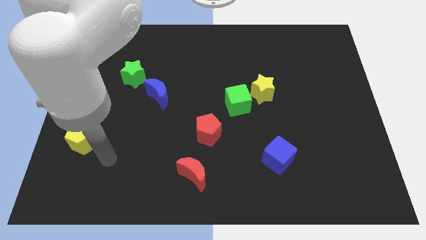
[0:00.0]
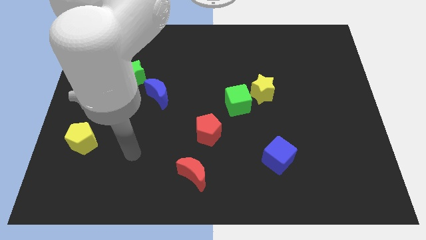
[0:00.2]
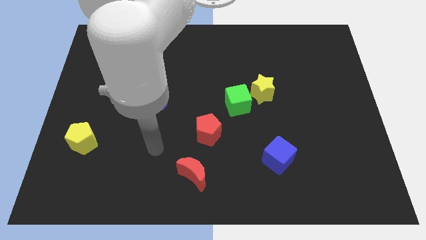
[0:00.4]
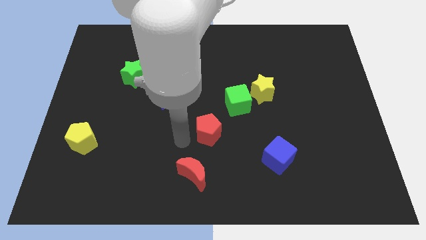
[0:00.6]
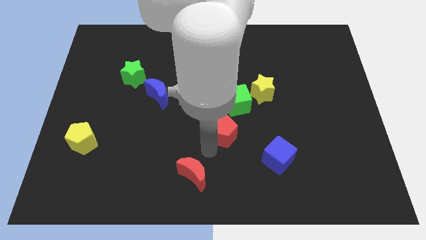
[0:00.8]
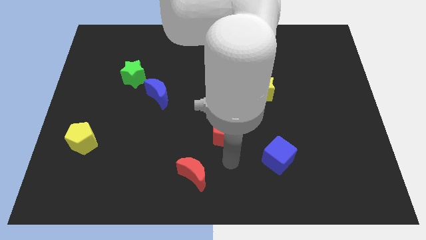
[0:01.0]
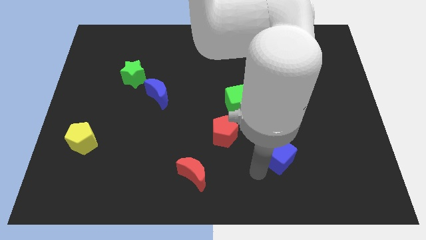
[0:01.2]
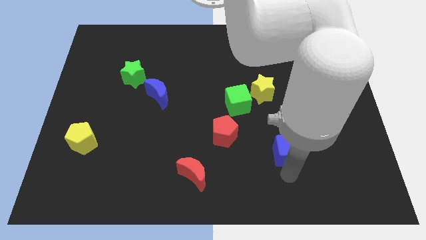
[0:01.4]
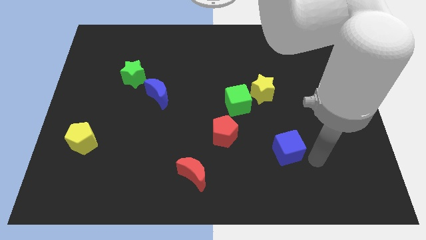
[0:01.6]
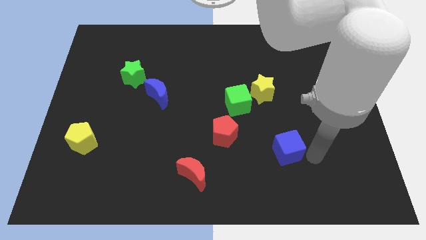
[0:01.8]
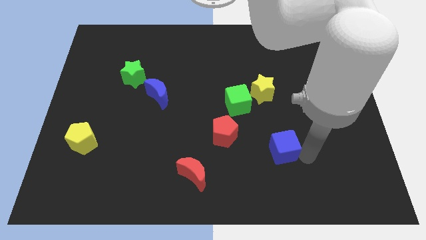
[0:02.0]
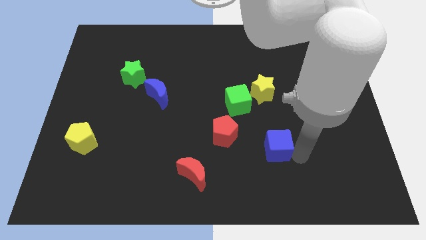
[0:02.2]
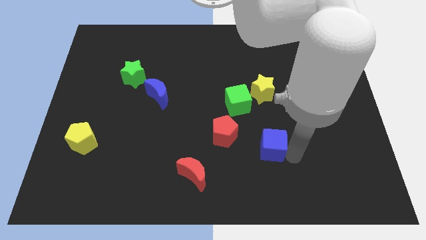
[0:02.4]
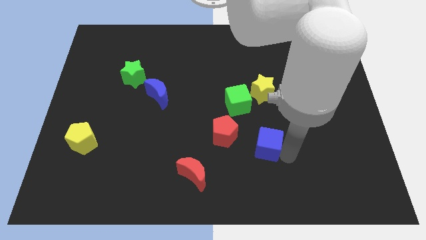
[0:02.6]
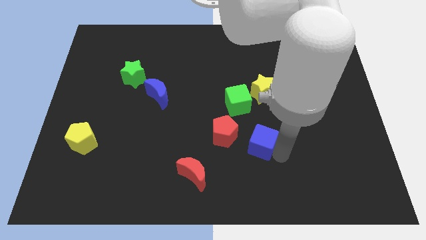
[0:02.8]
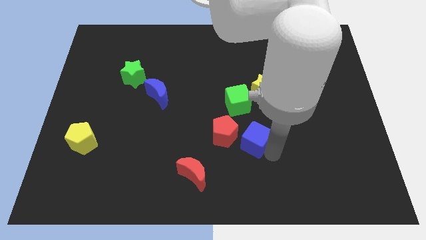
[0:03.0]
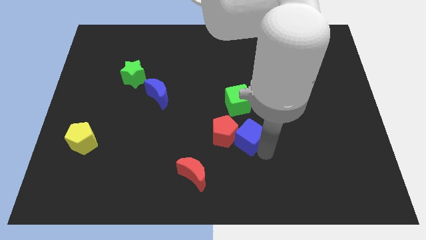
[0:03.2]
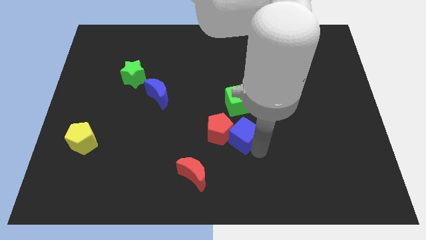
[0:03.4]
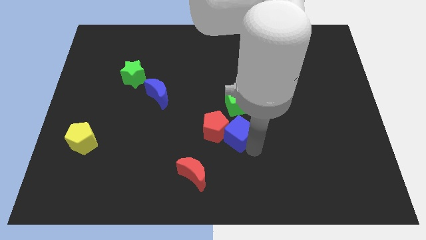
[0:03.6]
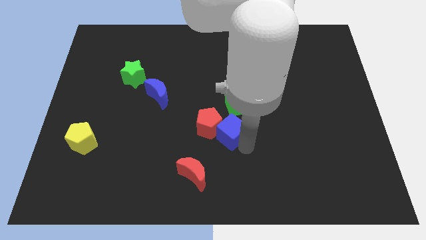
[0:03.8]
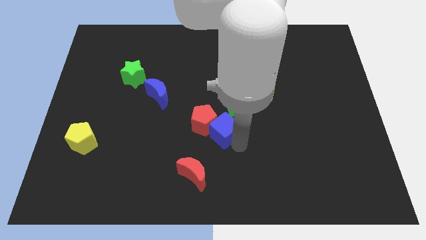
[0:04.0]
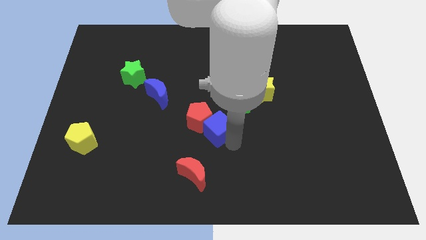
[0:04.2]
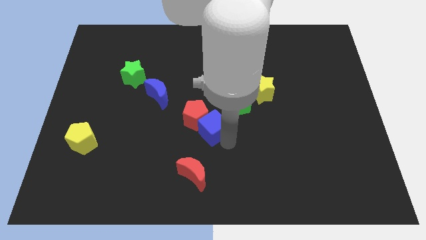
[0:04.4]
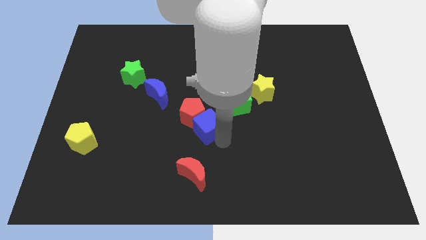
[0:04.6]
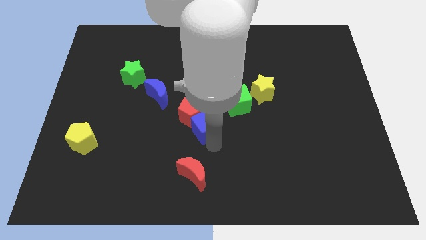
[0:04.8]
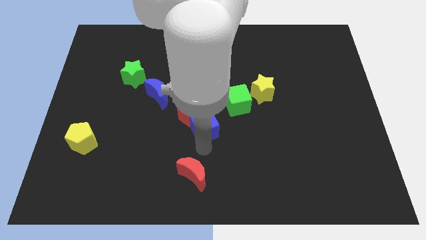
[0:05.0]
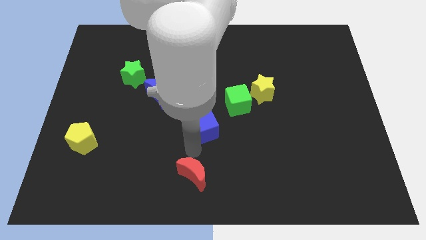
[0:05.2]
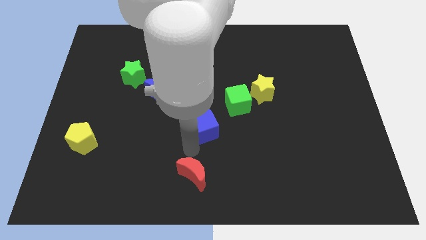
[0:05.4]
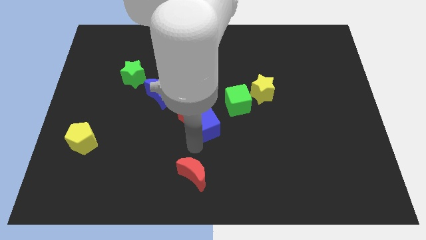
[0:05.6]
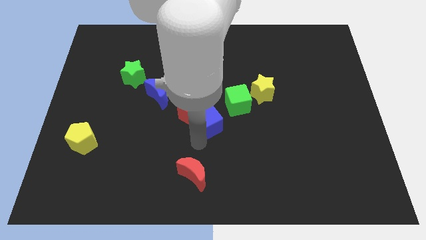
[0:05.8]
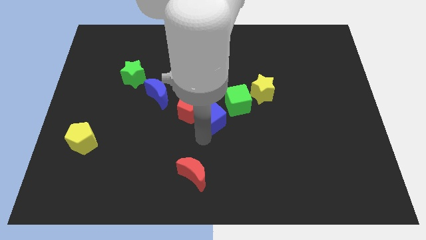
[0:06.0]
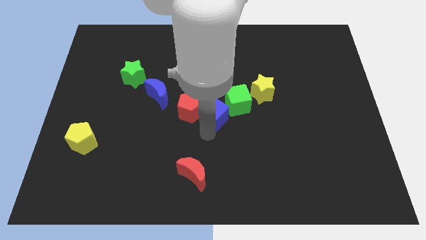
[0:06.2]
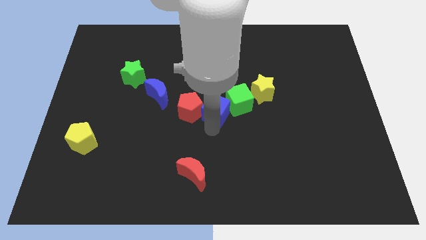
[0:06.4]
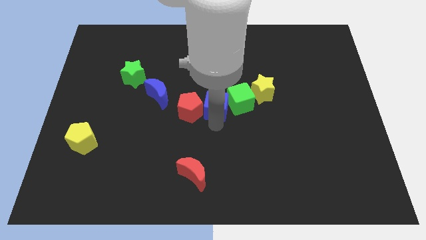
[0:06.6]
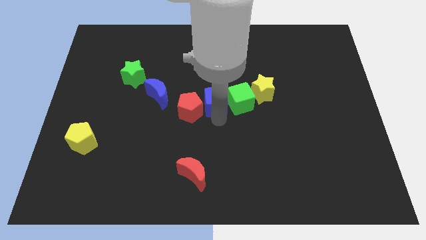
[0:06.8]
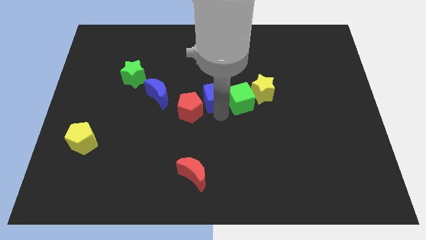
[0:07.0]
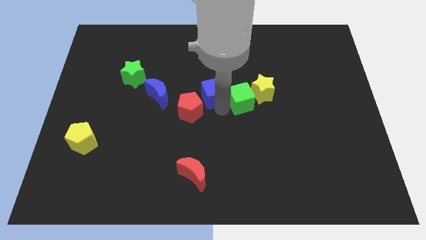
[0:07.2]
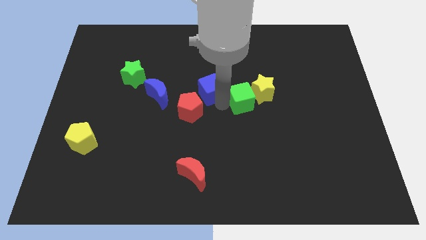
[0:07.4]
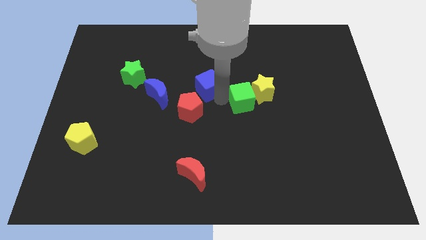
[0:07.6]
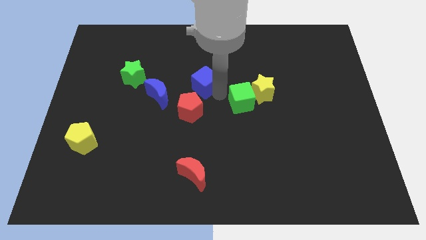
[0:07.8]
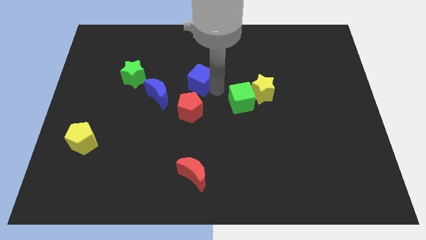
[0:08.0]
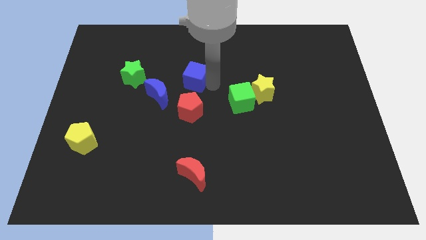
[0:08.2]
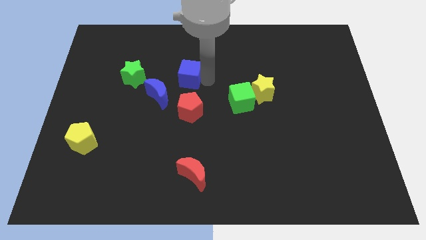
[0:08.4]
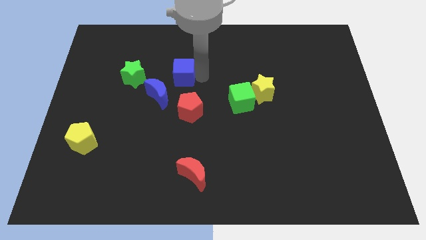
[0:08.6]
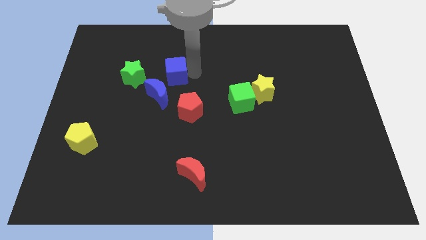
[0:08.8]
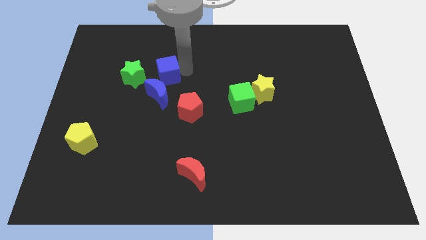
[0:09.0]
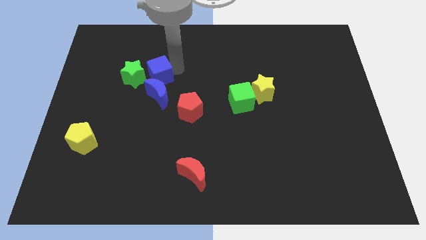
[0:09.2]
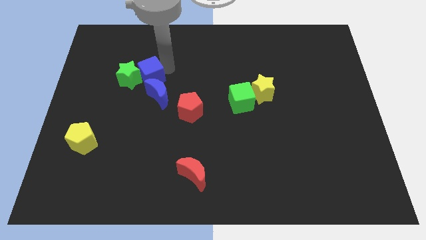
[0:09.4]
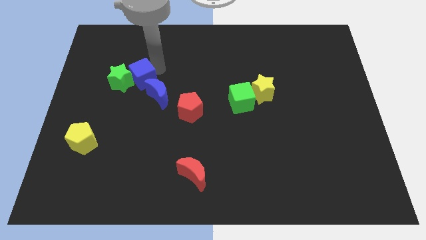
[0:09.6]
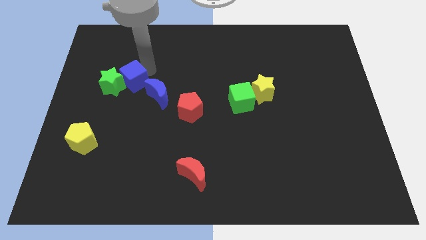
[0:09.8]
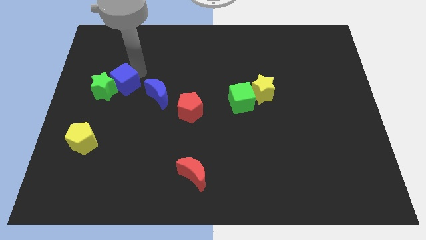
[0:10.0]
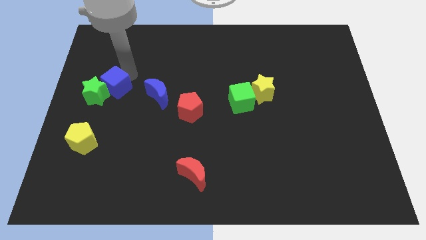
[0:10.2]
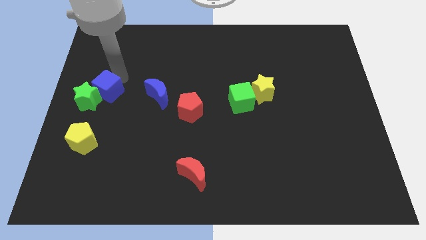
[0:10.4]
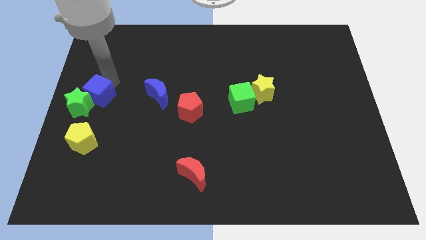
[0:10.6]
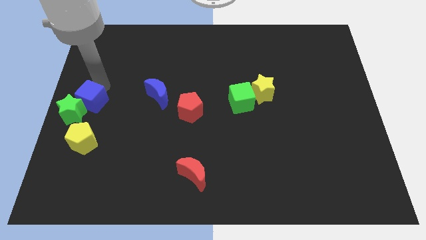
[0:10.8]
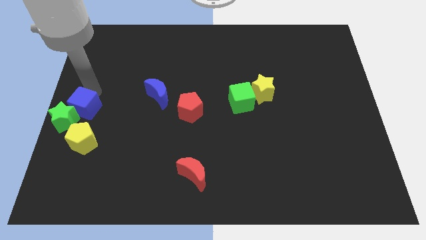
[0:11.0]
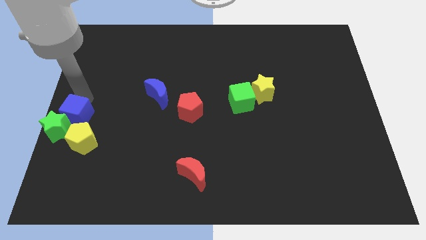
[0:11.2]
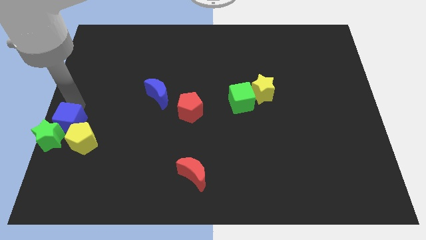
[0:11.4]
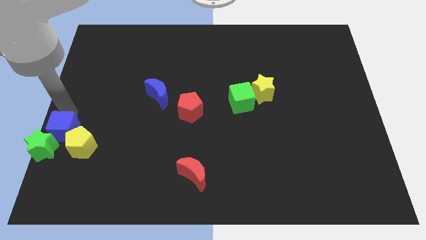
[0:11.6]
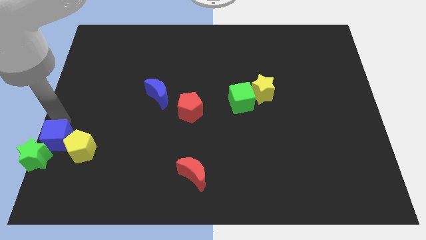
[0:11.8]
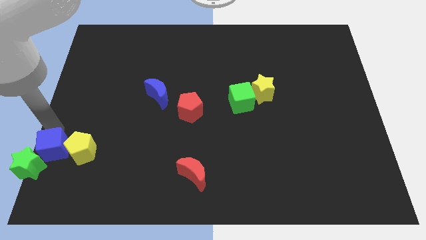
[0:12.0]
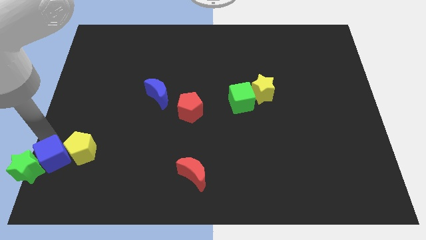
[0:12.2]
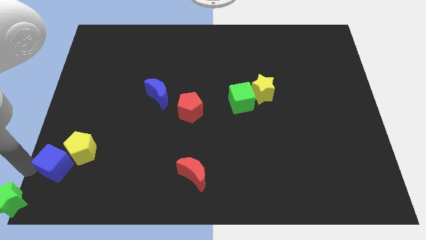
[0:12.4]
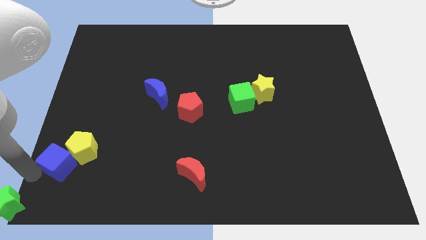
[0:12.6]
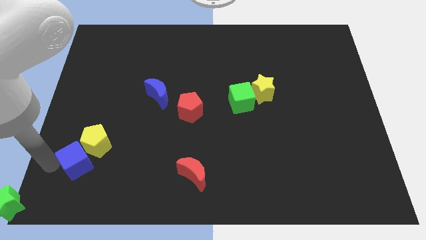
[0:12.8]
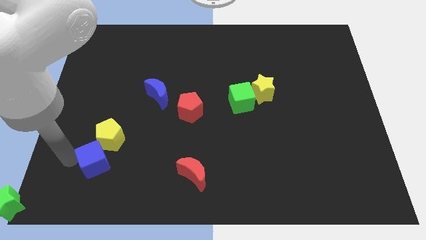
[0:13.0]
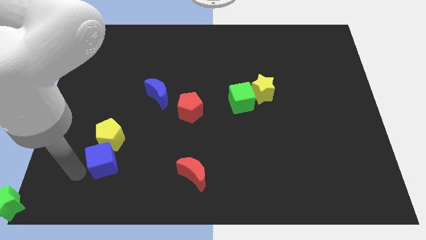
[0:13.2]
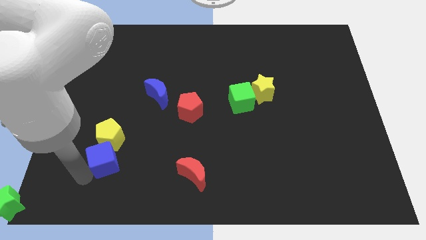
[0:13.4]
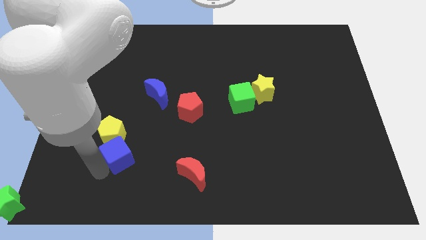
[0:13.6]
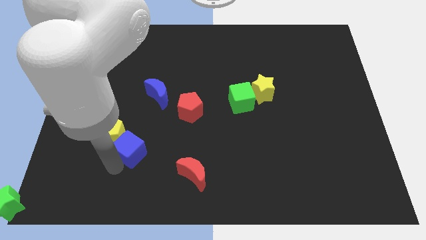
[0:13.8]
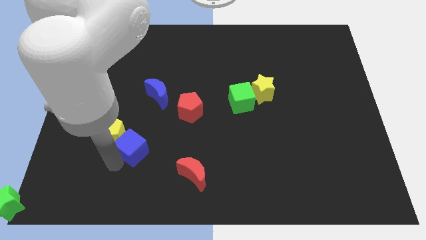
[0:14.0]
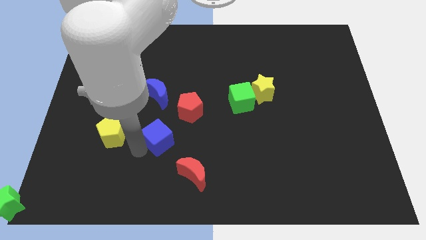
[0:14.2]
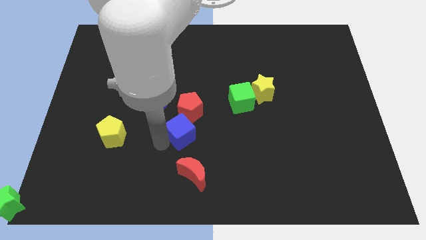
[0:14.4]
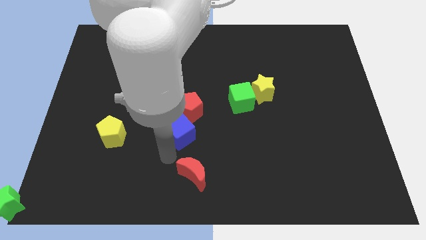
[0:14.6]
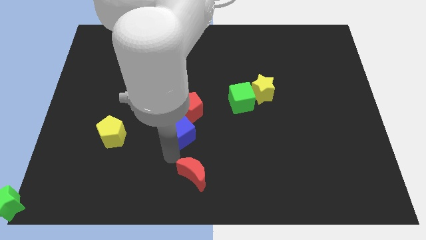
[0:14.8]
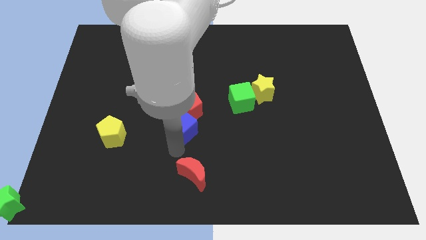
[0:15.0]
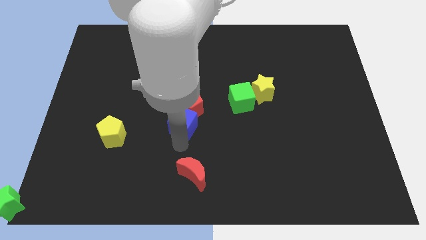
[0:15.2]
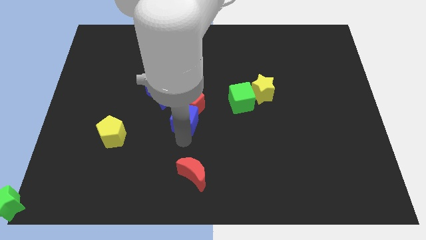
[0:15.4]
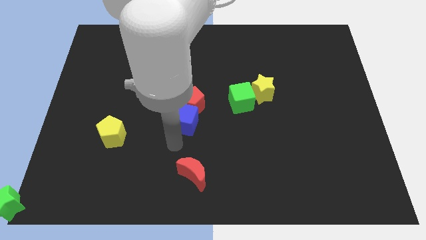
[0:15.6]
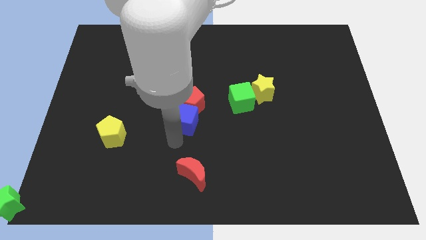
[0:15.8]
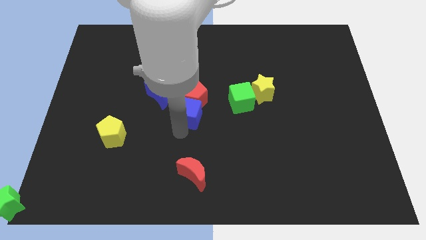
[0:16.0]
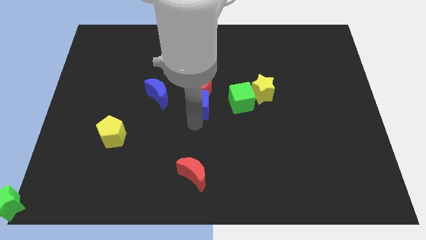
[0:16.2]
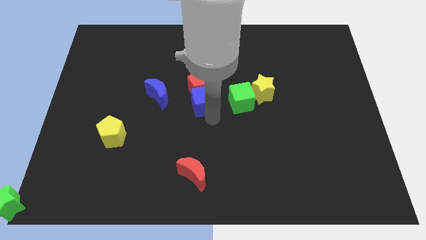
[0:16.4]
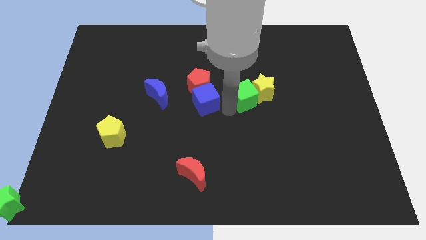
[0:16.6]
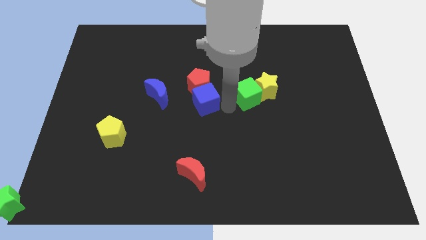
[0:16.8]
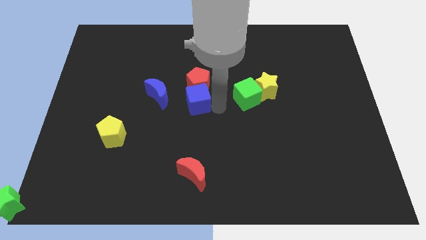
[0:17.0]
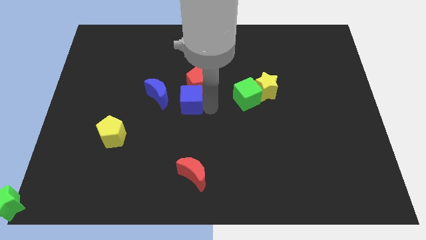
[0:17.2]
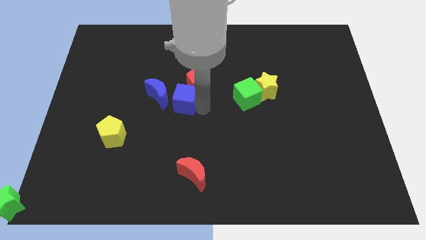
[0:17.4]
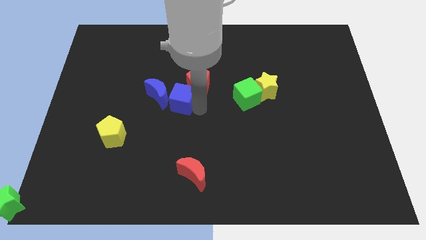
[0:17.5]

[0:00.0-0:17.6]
move the blue cube close to the blue moon
